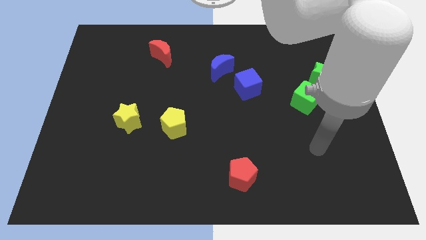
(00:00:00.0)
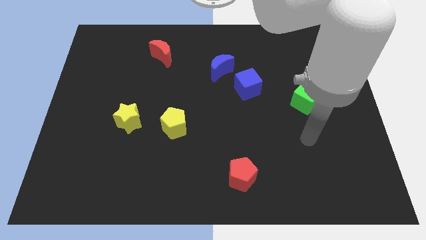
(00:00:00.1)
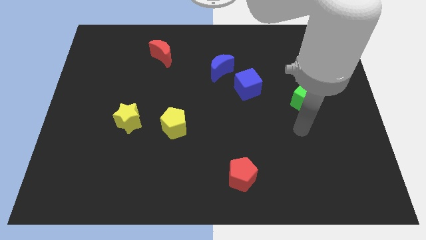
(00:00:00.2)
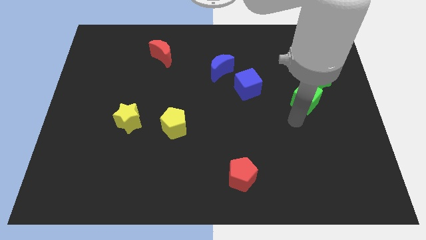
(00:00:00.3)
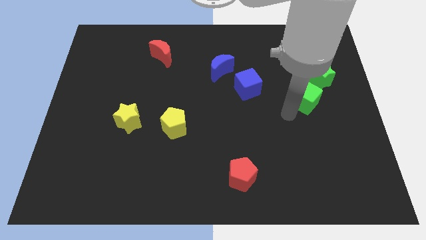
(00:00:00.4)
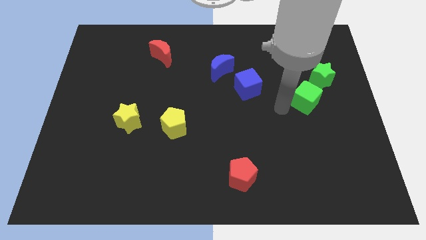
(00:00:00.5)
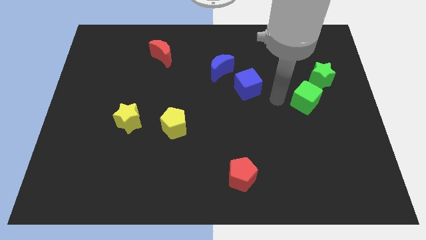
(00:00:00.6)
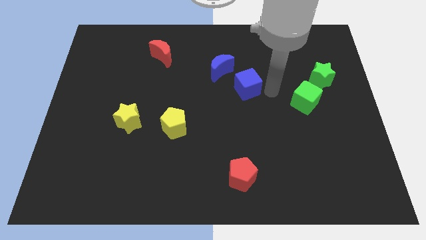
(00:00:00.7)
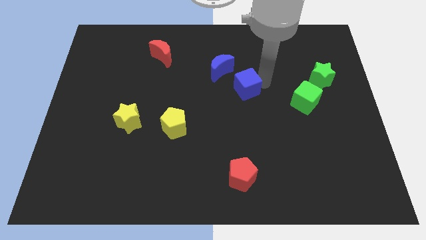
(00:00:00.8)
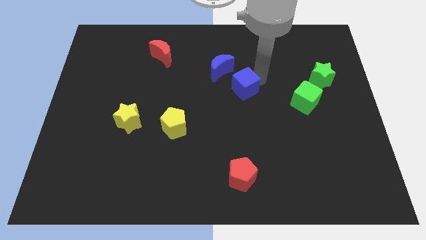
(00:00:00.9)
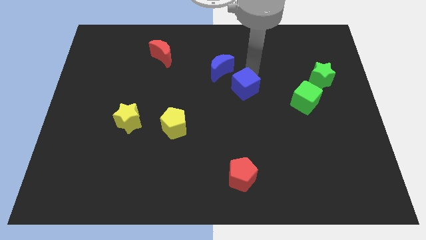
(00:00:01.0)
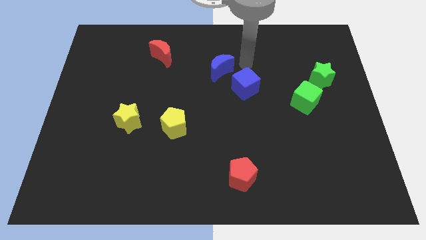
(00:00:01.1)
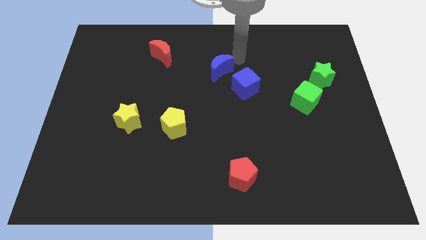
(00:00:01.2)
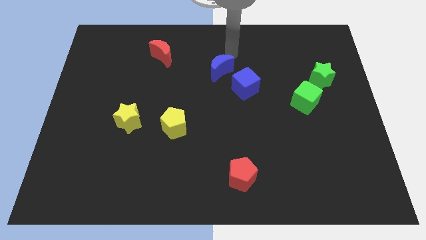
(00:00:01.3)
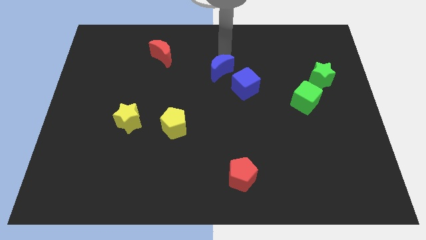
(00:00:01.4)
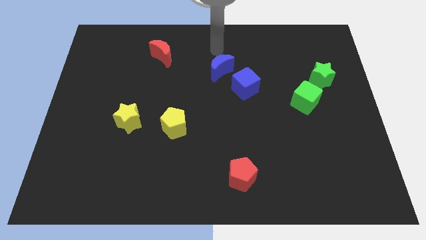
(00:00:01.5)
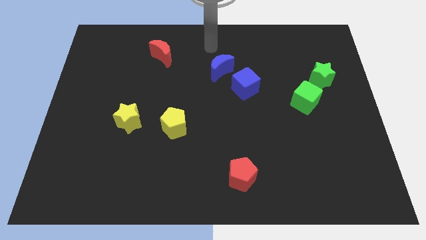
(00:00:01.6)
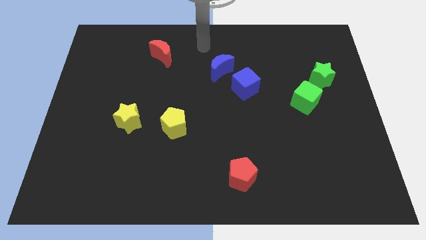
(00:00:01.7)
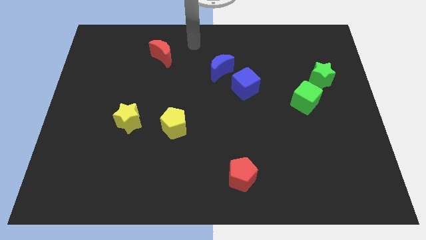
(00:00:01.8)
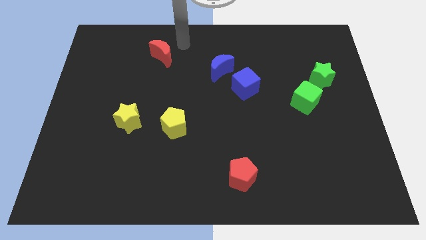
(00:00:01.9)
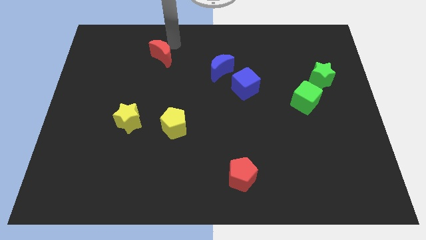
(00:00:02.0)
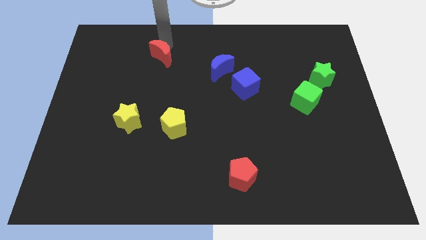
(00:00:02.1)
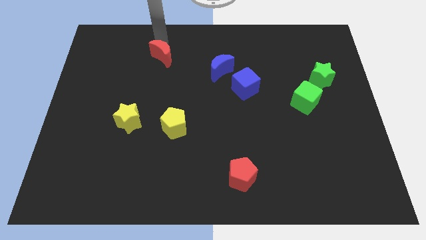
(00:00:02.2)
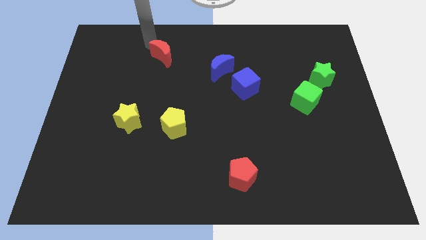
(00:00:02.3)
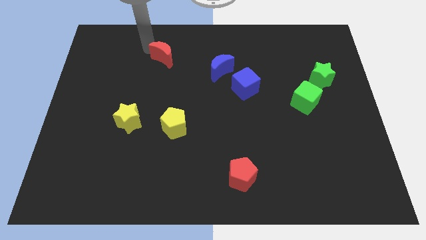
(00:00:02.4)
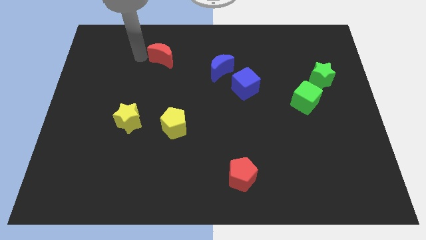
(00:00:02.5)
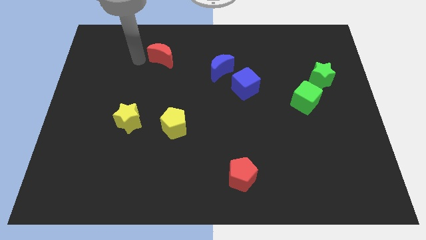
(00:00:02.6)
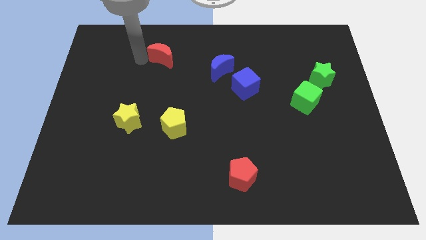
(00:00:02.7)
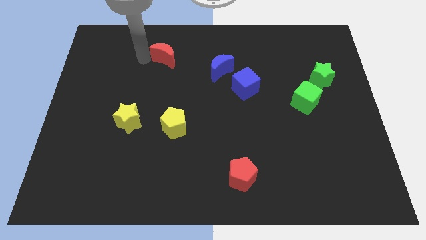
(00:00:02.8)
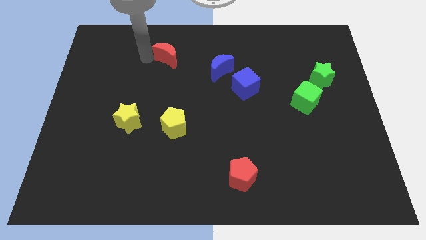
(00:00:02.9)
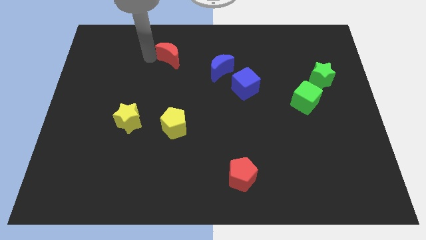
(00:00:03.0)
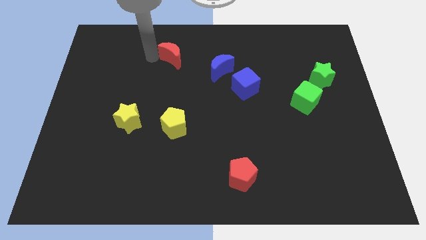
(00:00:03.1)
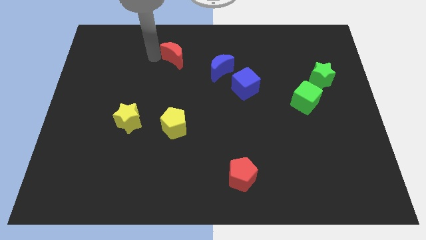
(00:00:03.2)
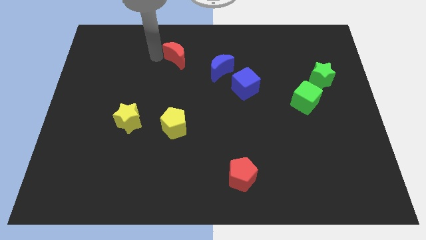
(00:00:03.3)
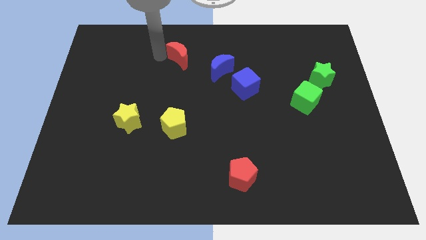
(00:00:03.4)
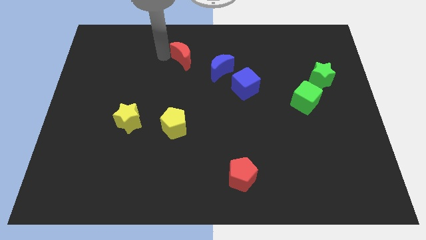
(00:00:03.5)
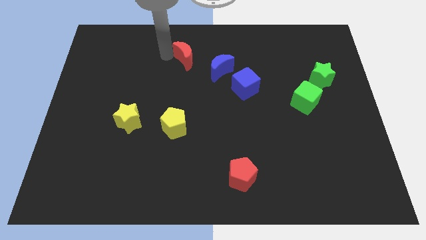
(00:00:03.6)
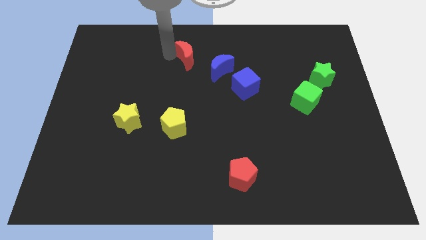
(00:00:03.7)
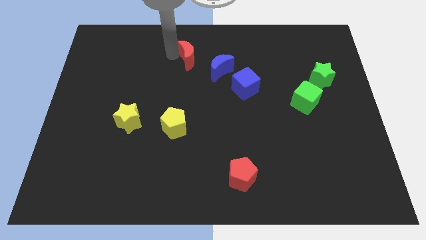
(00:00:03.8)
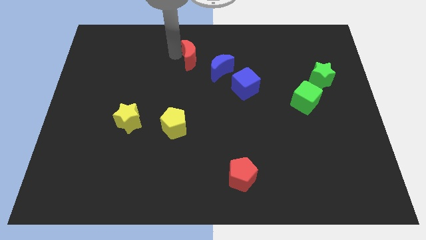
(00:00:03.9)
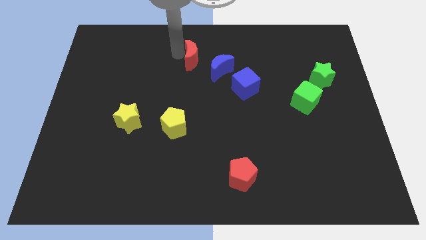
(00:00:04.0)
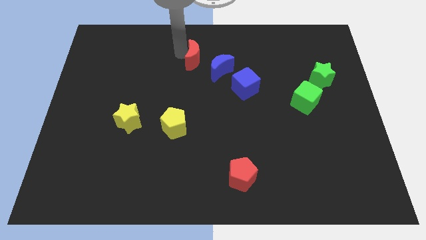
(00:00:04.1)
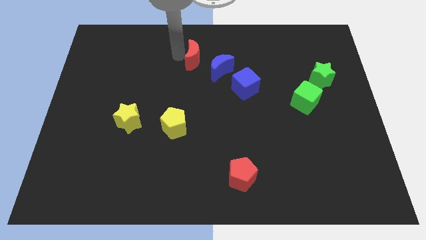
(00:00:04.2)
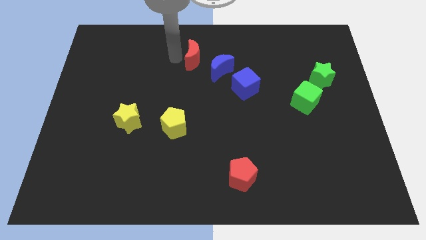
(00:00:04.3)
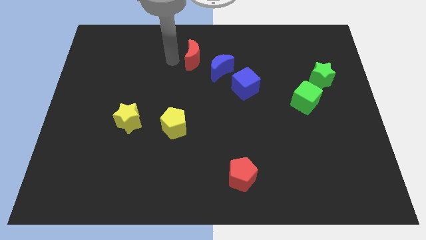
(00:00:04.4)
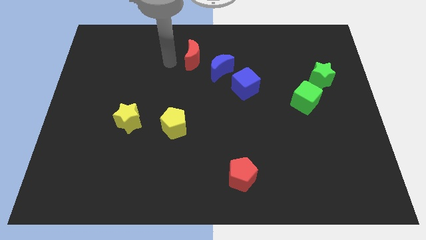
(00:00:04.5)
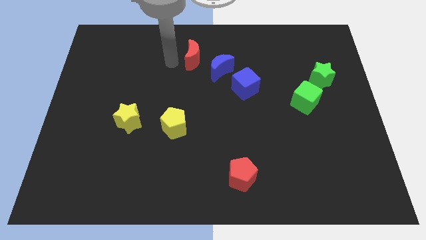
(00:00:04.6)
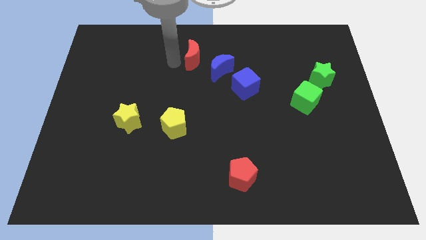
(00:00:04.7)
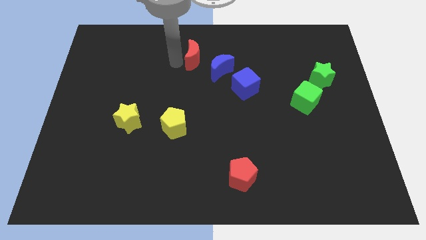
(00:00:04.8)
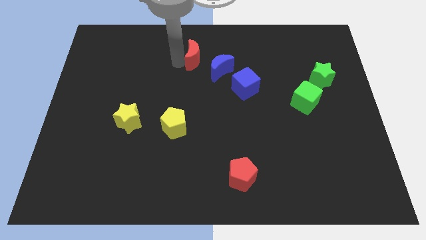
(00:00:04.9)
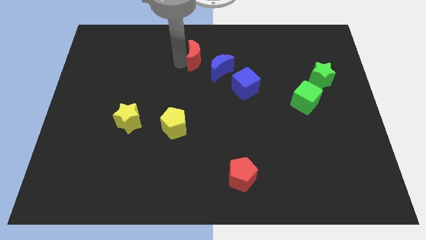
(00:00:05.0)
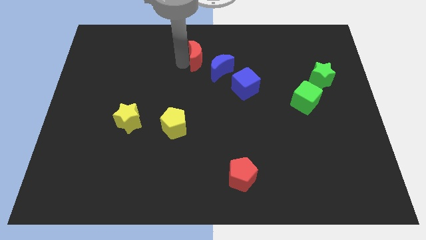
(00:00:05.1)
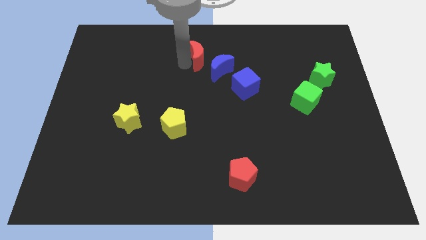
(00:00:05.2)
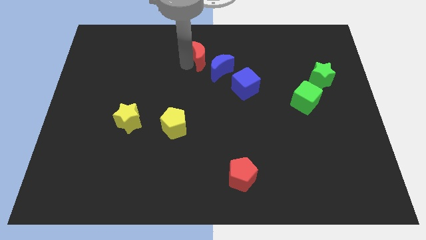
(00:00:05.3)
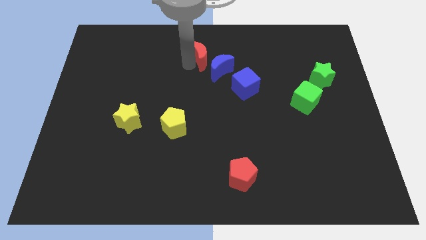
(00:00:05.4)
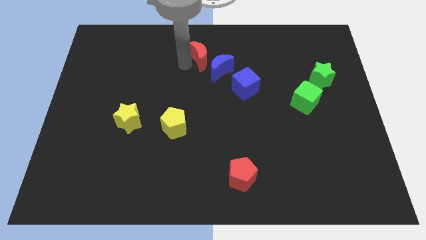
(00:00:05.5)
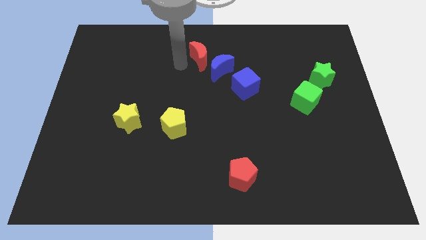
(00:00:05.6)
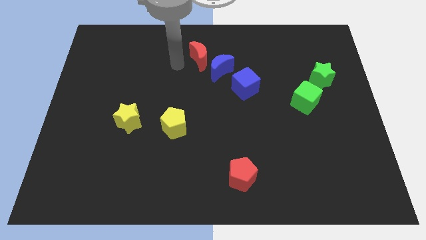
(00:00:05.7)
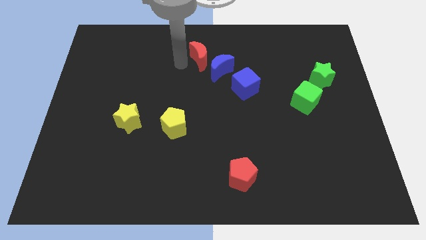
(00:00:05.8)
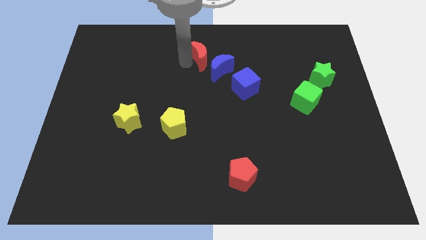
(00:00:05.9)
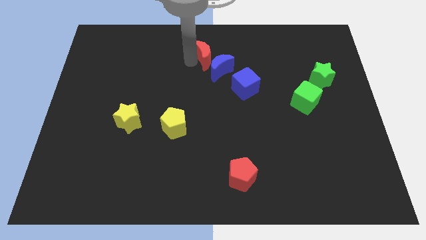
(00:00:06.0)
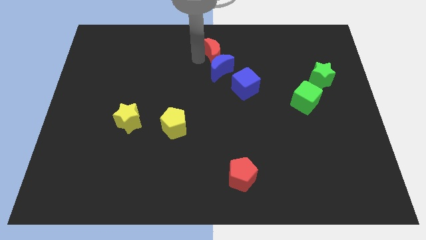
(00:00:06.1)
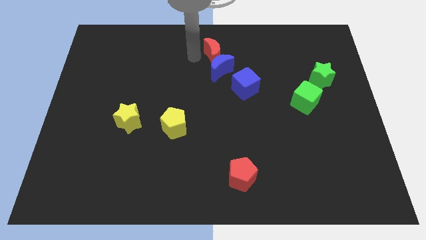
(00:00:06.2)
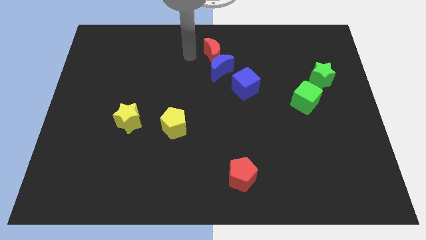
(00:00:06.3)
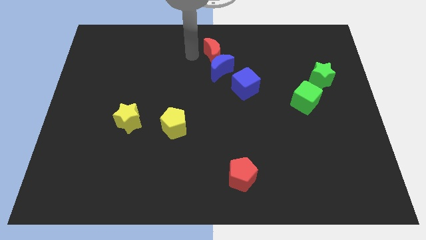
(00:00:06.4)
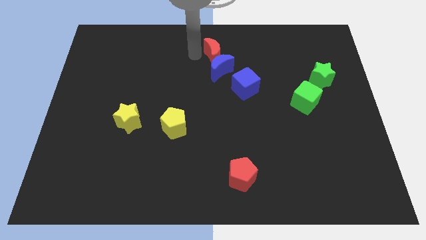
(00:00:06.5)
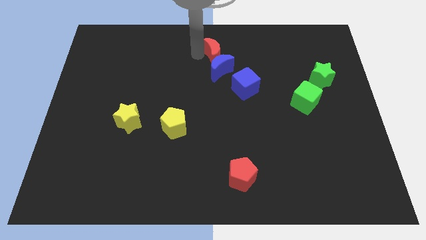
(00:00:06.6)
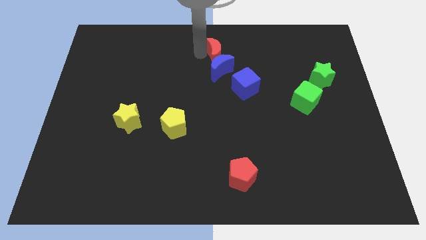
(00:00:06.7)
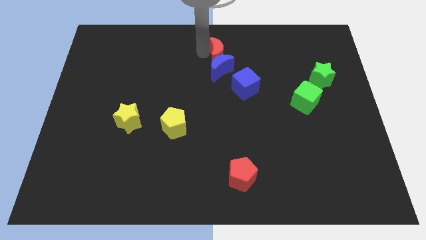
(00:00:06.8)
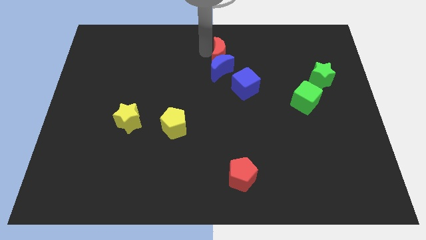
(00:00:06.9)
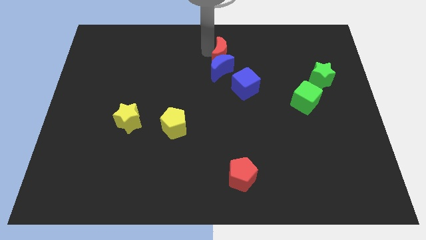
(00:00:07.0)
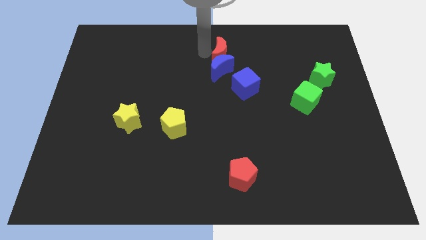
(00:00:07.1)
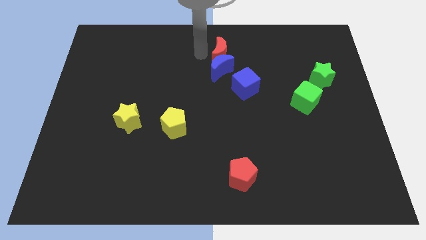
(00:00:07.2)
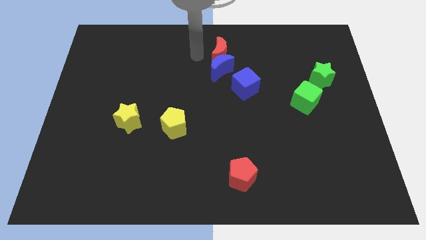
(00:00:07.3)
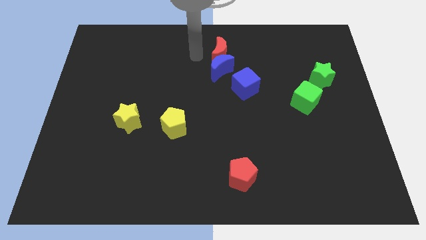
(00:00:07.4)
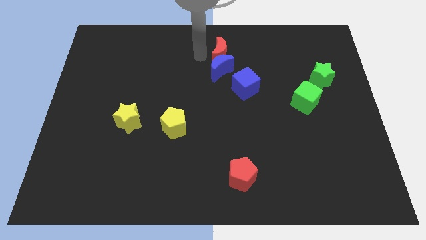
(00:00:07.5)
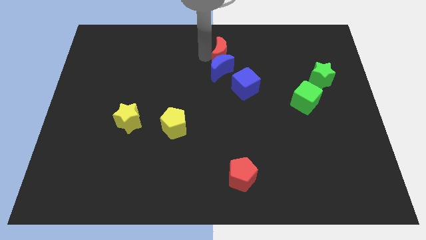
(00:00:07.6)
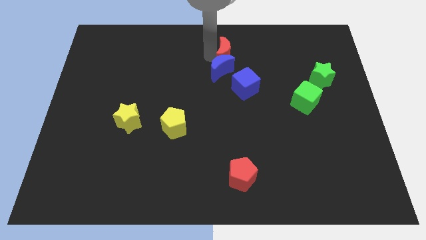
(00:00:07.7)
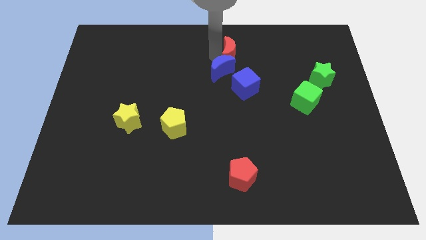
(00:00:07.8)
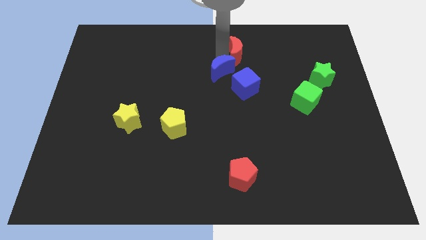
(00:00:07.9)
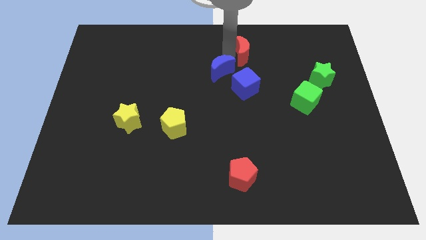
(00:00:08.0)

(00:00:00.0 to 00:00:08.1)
move the red moon to the right
